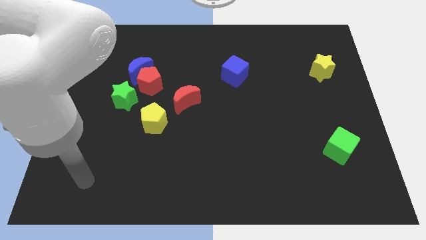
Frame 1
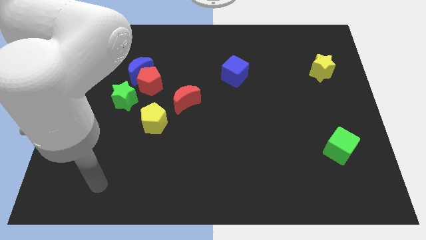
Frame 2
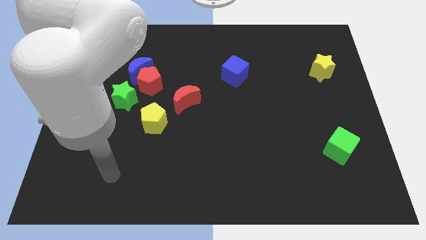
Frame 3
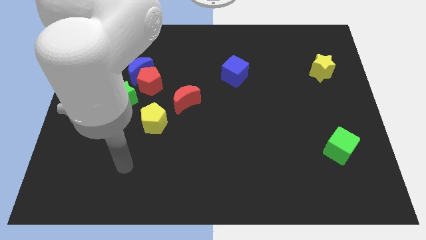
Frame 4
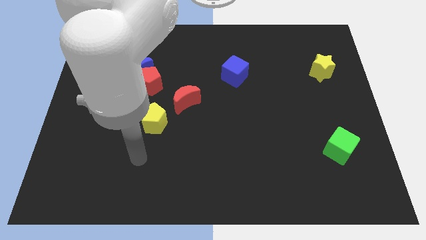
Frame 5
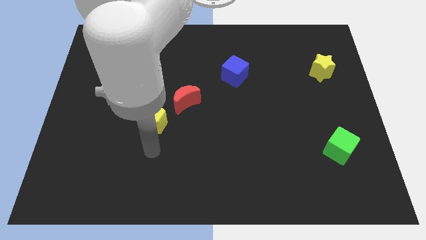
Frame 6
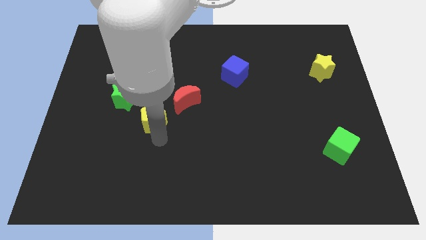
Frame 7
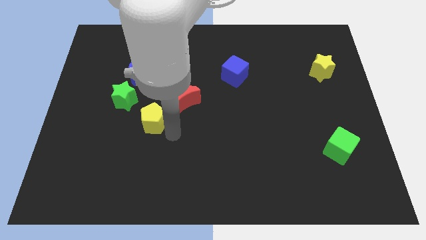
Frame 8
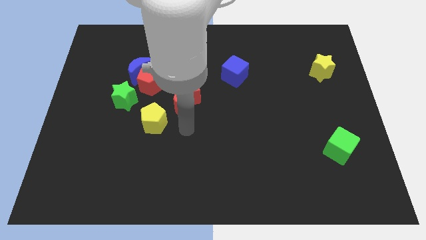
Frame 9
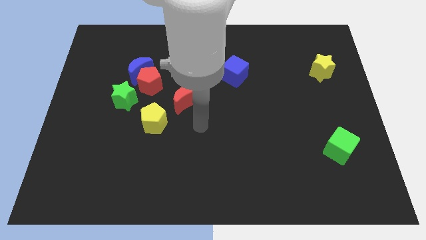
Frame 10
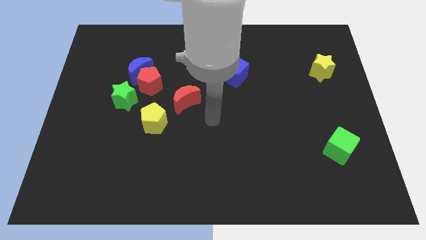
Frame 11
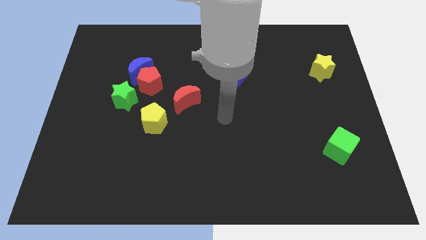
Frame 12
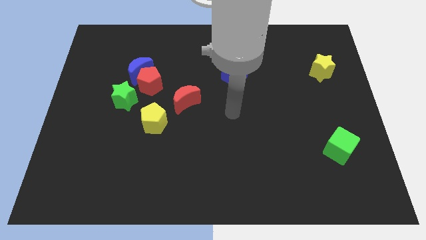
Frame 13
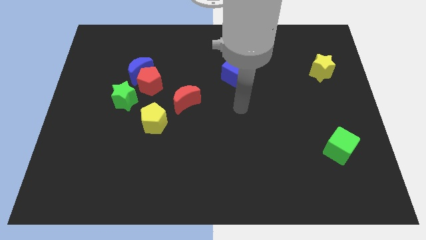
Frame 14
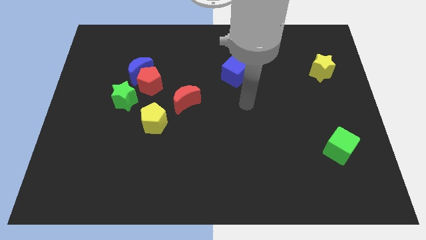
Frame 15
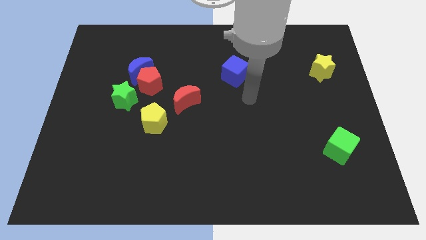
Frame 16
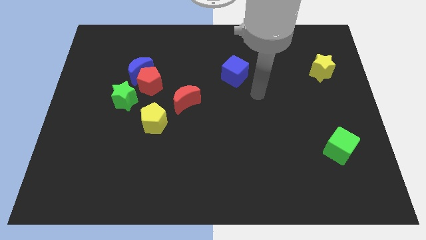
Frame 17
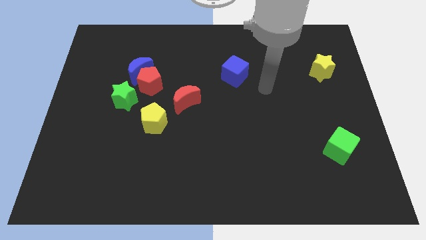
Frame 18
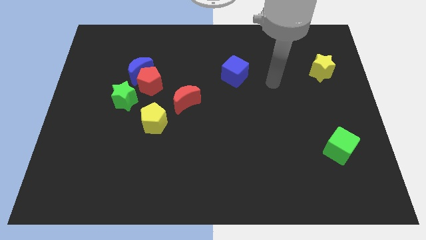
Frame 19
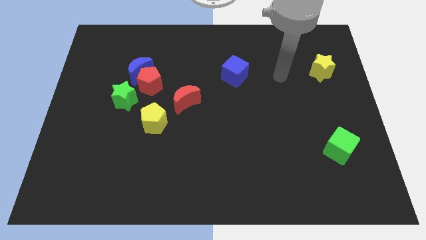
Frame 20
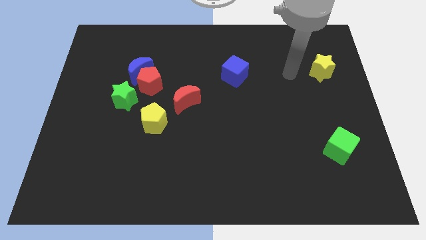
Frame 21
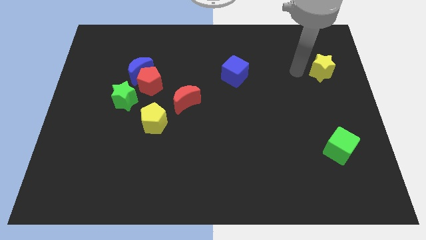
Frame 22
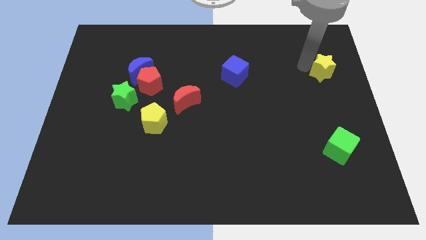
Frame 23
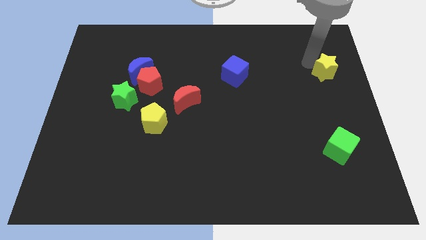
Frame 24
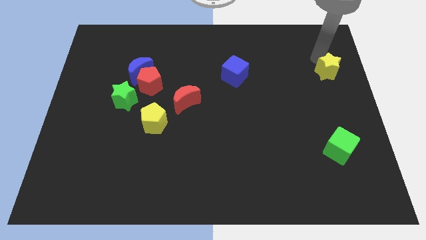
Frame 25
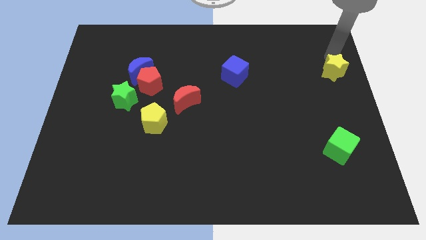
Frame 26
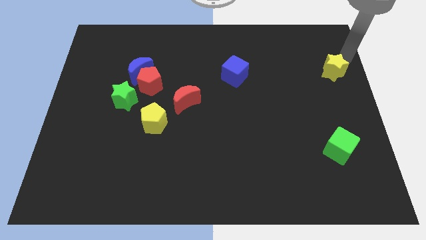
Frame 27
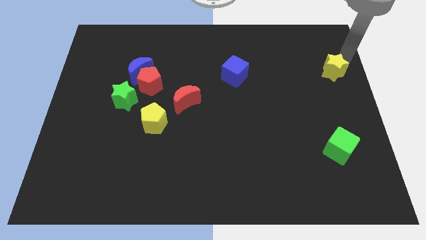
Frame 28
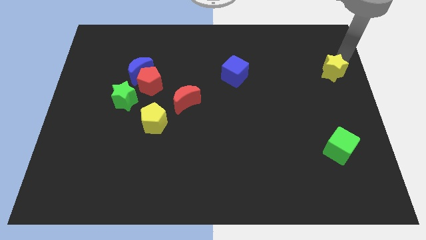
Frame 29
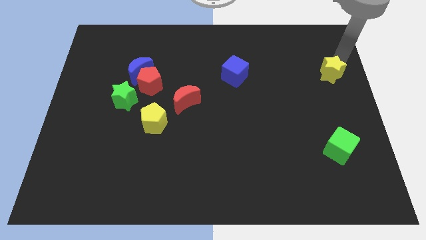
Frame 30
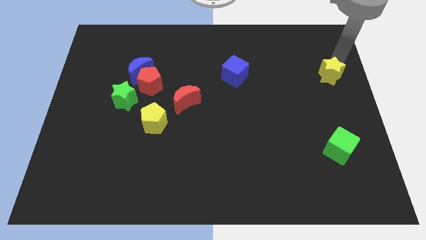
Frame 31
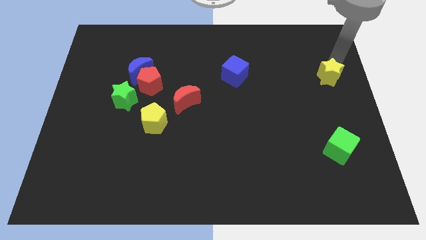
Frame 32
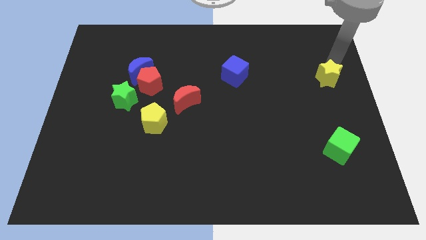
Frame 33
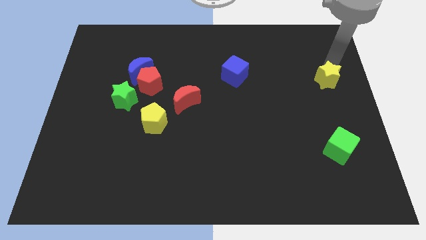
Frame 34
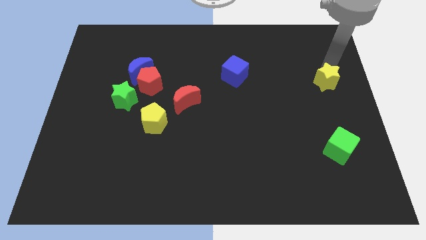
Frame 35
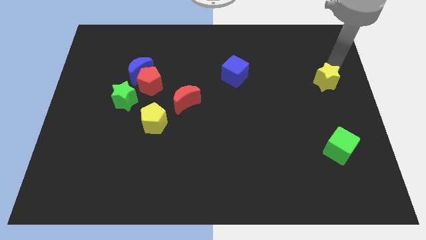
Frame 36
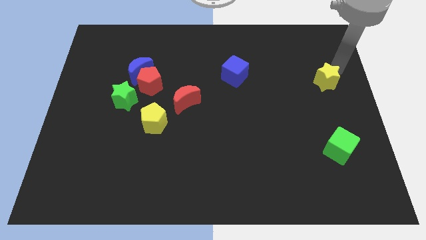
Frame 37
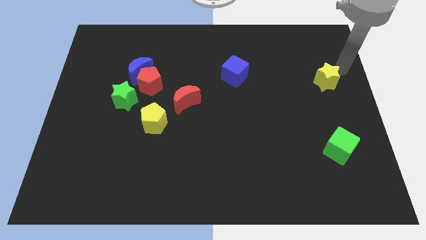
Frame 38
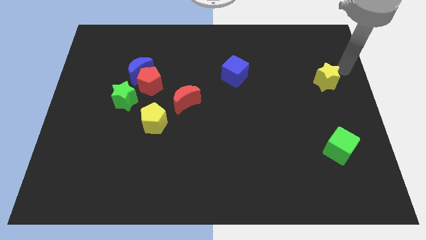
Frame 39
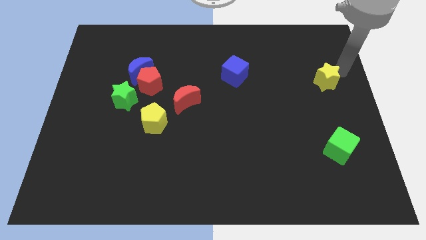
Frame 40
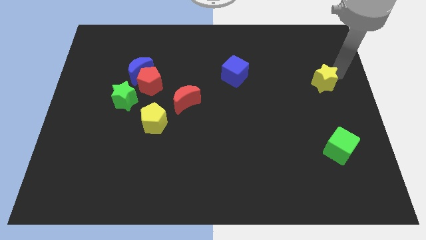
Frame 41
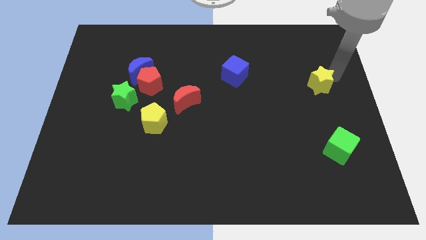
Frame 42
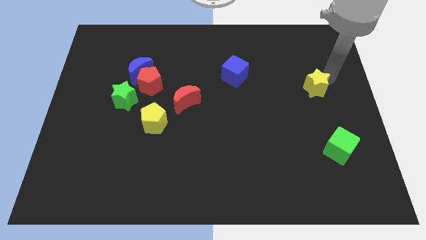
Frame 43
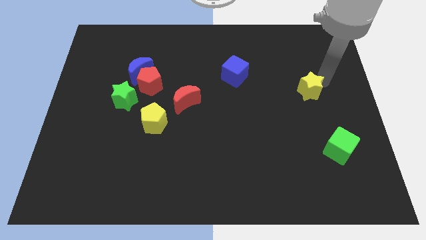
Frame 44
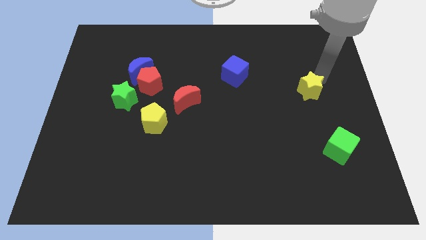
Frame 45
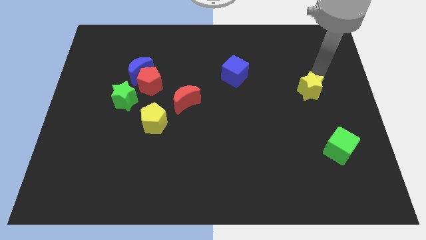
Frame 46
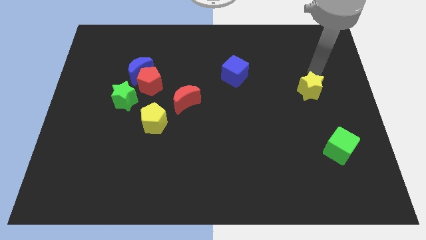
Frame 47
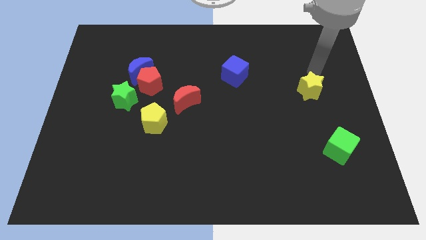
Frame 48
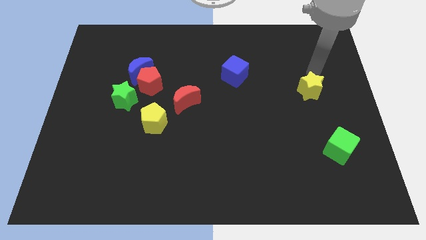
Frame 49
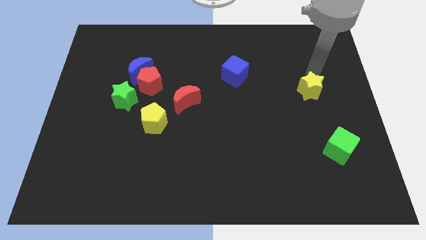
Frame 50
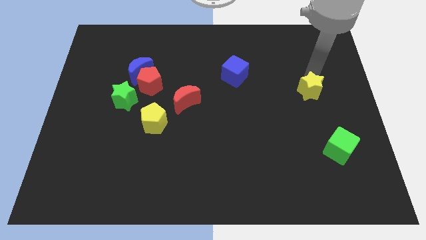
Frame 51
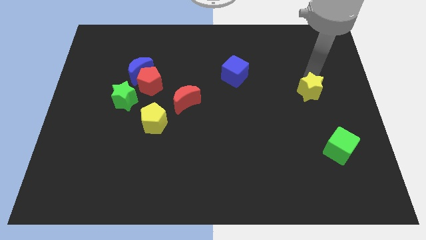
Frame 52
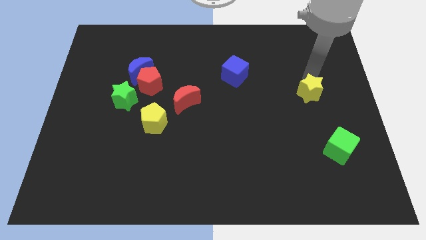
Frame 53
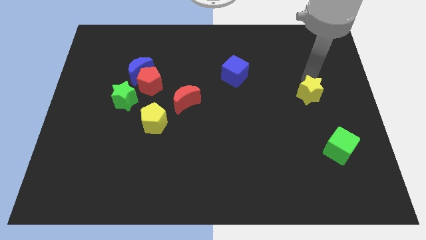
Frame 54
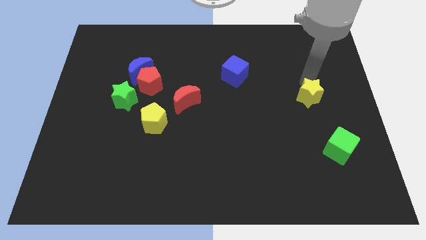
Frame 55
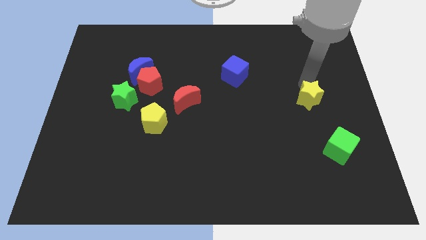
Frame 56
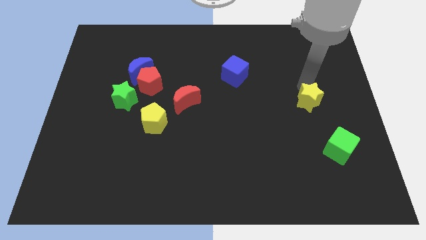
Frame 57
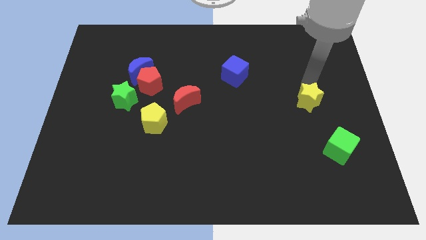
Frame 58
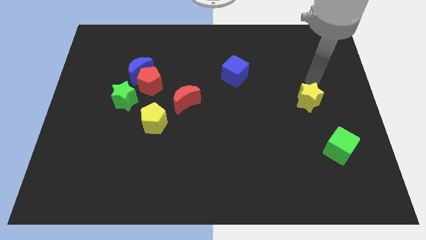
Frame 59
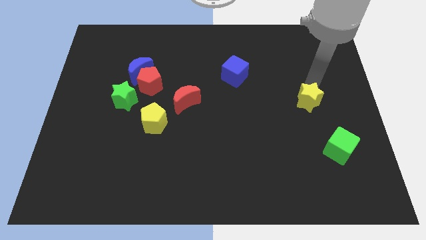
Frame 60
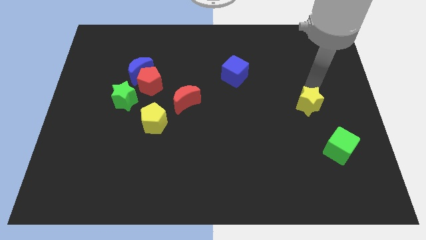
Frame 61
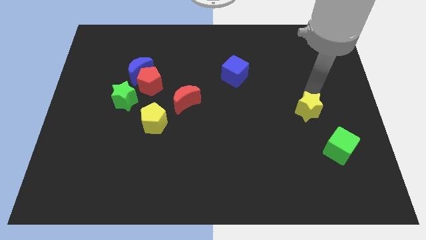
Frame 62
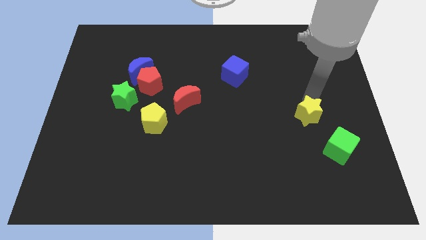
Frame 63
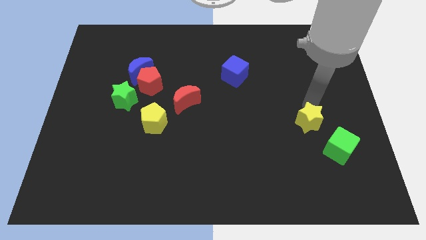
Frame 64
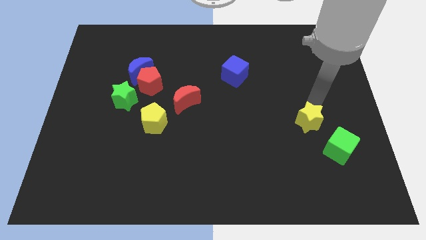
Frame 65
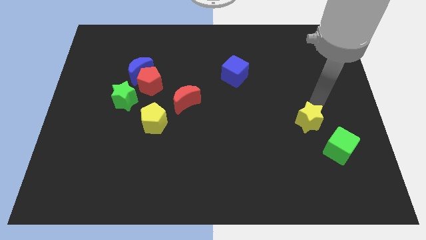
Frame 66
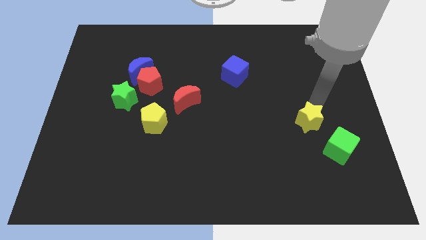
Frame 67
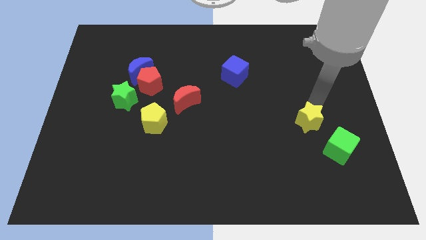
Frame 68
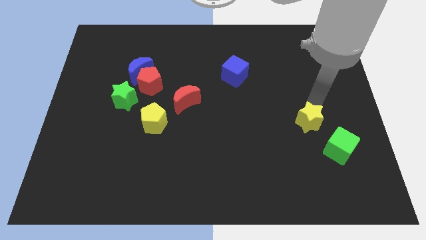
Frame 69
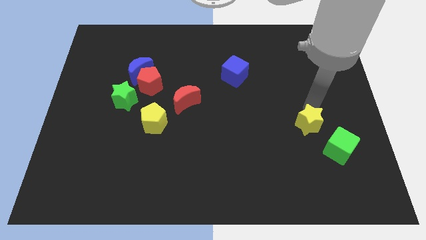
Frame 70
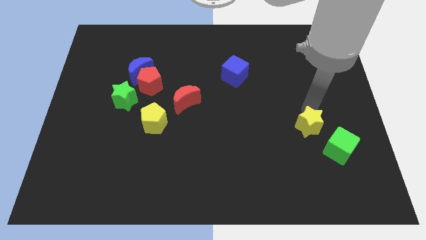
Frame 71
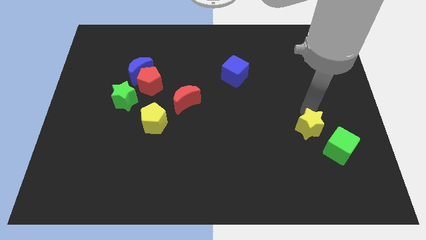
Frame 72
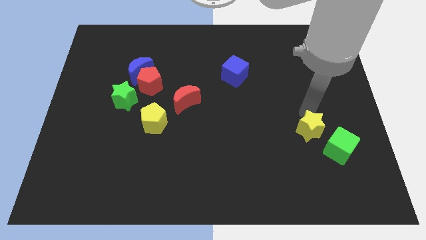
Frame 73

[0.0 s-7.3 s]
slide the yellow star just left of the green cube

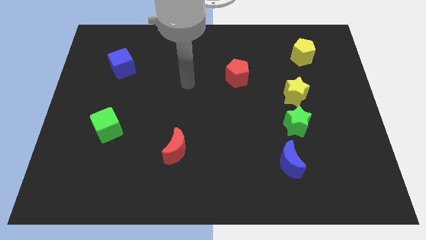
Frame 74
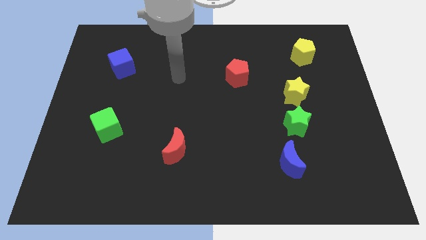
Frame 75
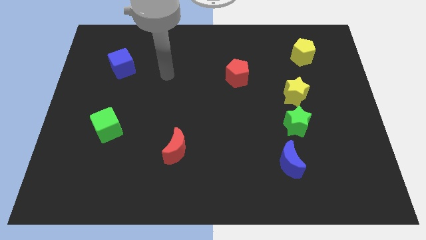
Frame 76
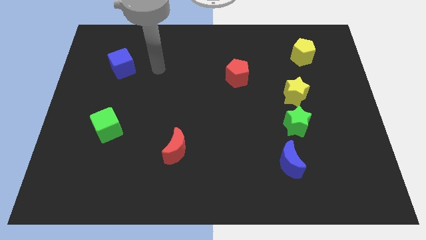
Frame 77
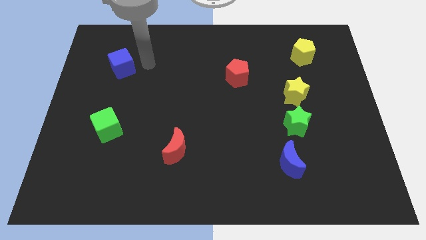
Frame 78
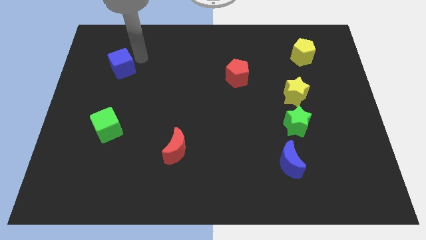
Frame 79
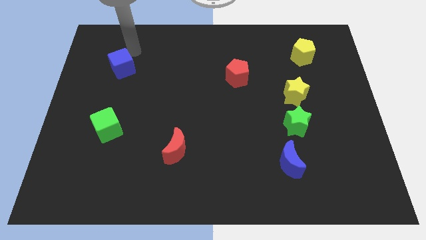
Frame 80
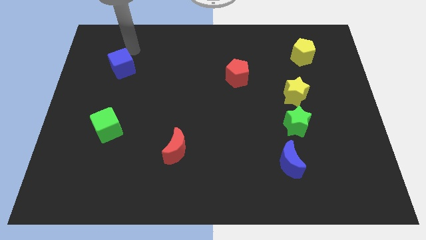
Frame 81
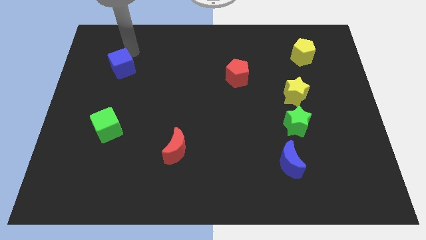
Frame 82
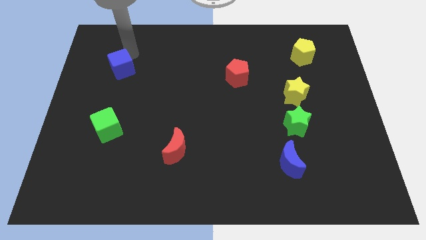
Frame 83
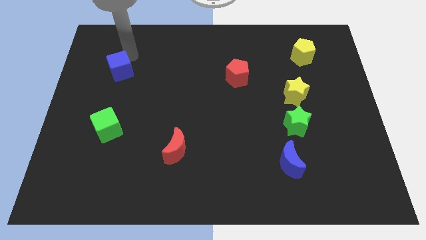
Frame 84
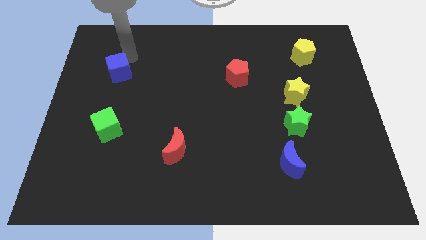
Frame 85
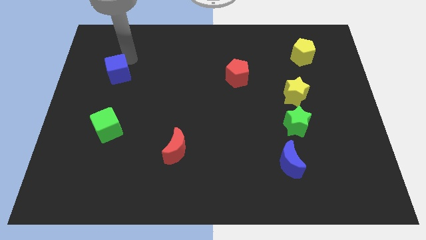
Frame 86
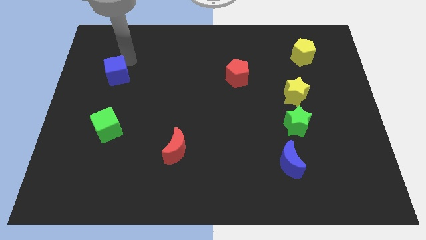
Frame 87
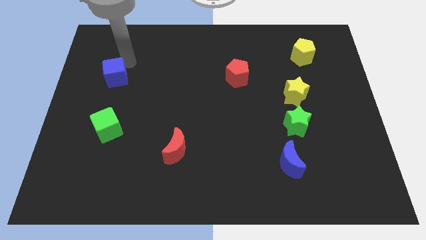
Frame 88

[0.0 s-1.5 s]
move the blue cube to the top side of the green cube
